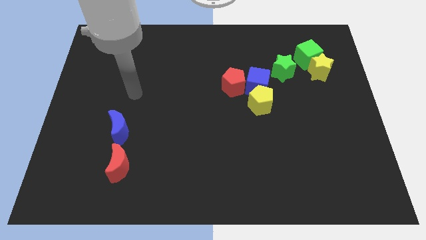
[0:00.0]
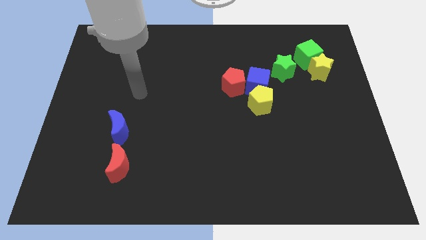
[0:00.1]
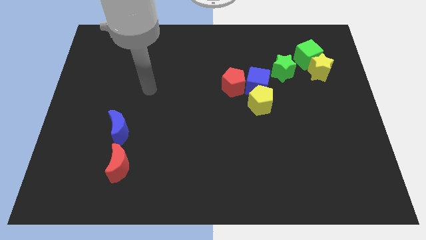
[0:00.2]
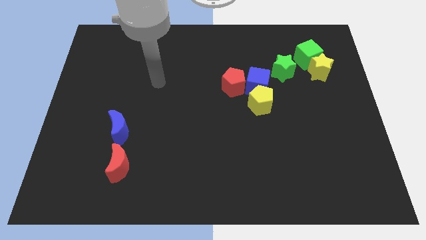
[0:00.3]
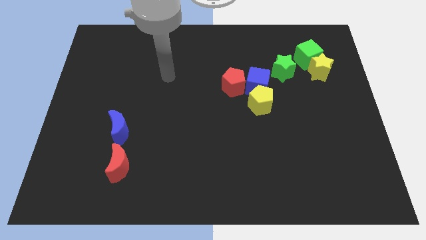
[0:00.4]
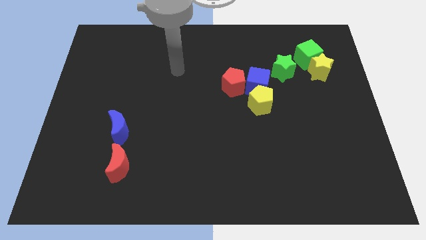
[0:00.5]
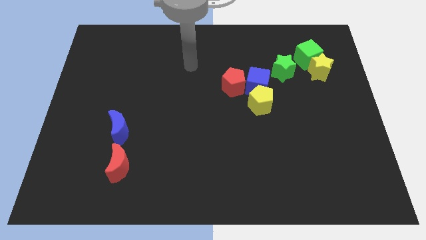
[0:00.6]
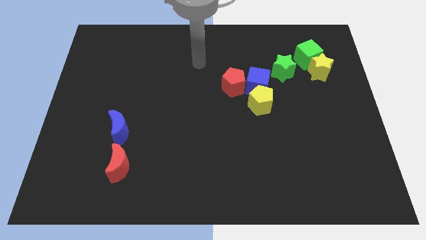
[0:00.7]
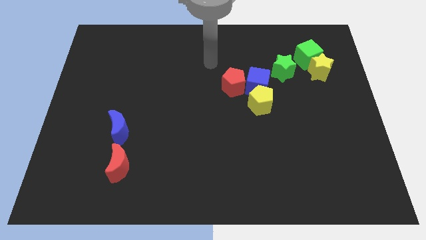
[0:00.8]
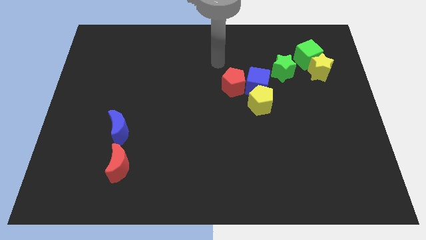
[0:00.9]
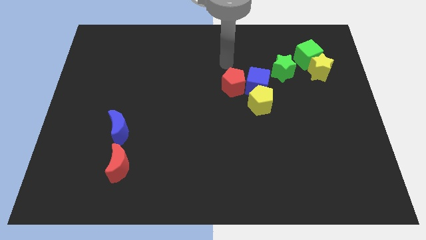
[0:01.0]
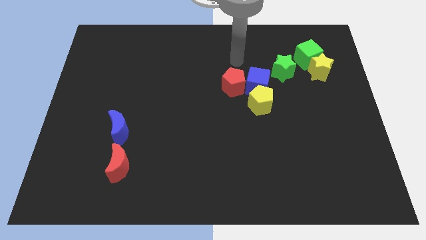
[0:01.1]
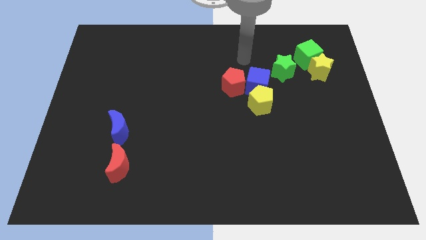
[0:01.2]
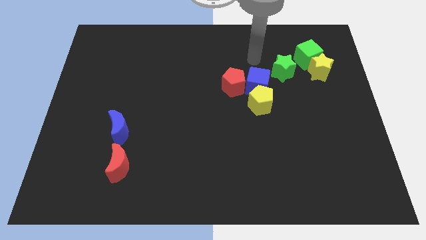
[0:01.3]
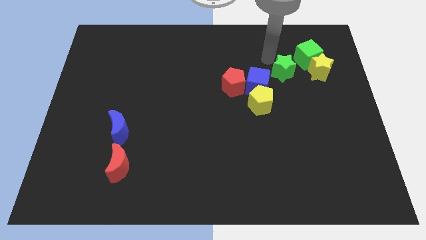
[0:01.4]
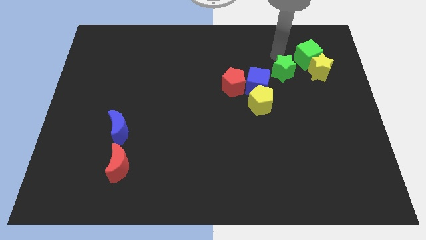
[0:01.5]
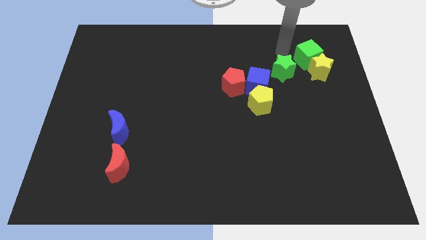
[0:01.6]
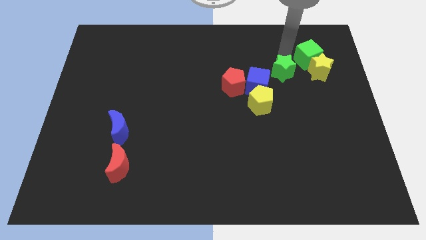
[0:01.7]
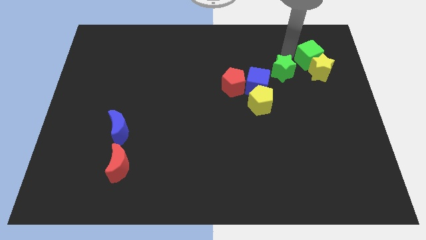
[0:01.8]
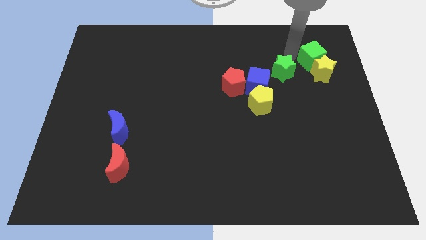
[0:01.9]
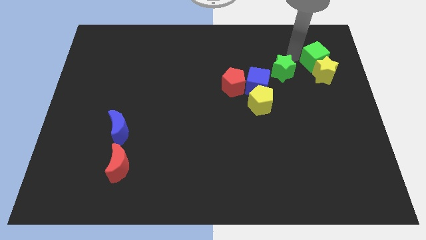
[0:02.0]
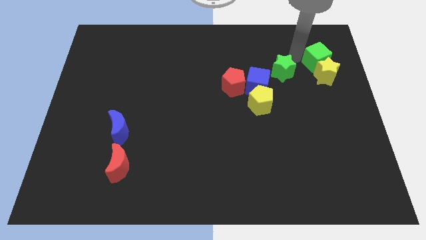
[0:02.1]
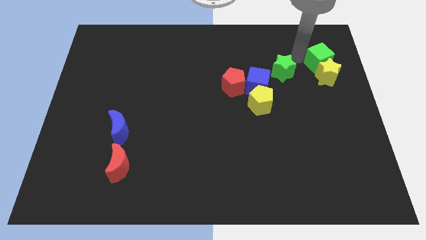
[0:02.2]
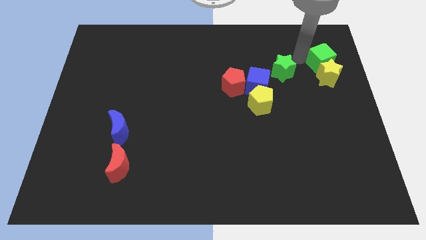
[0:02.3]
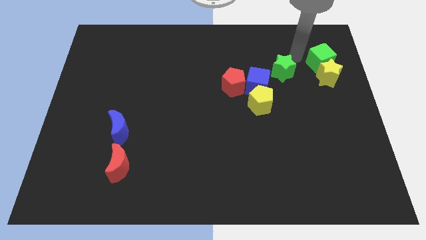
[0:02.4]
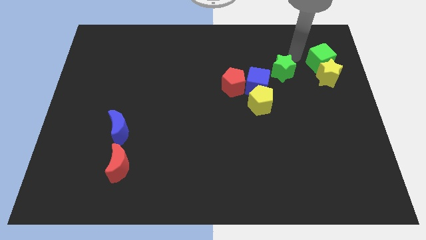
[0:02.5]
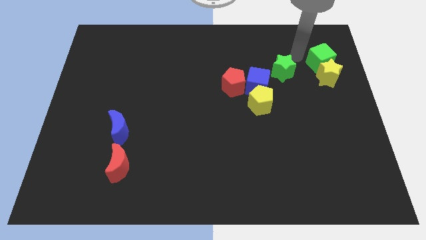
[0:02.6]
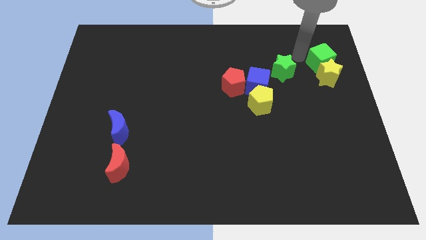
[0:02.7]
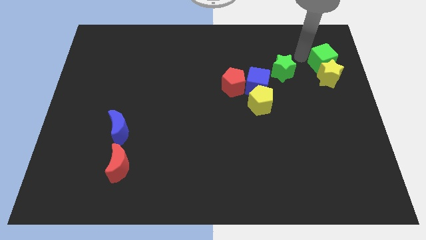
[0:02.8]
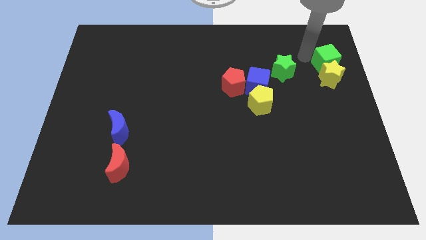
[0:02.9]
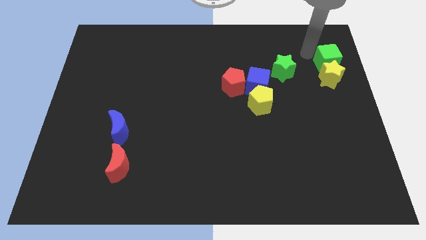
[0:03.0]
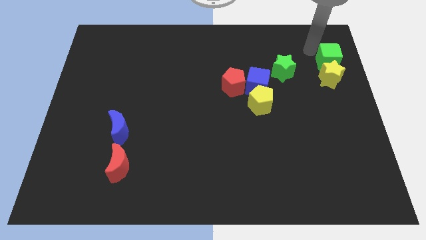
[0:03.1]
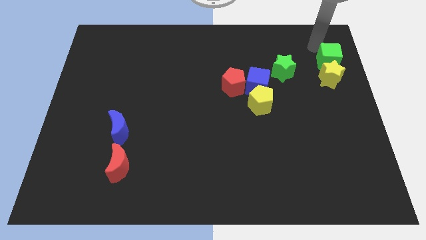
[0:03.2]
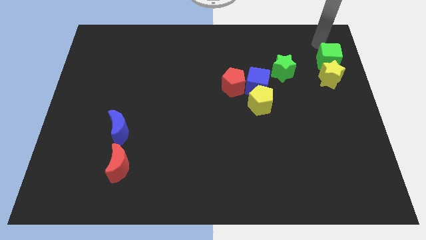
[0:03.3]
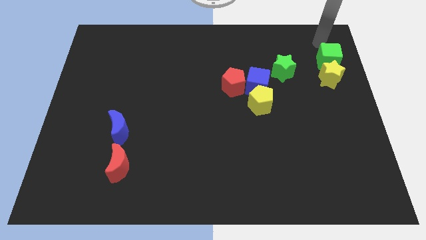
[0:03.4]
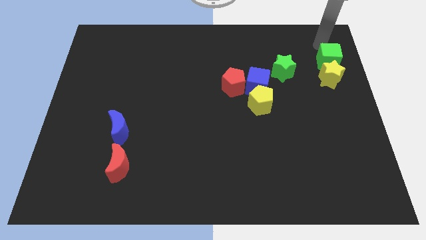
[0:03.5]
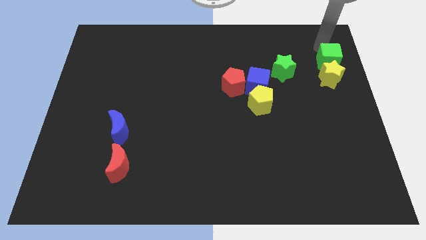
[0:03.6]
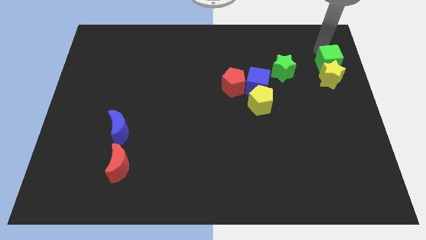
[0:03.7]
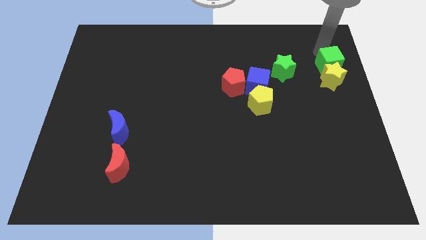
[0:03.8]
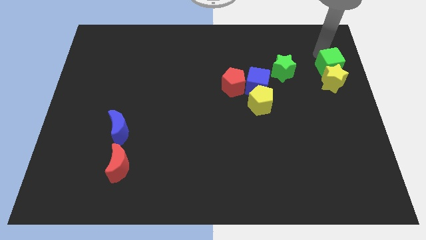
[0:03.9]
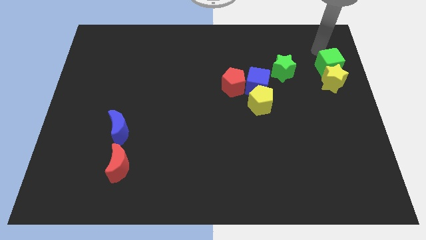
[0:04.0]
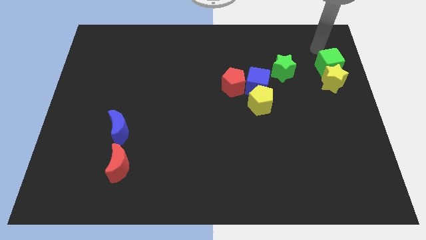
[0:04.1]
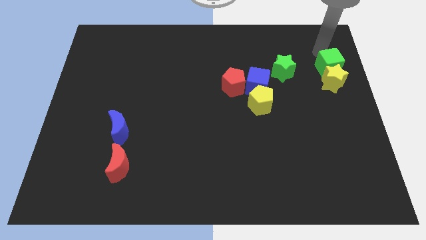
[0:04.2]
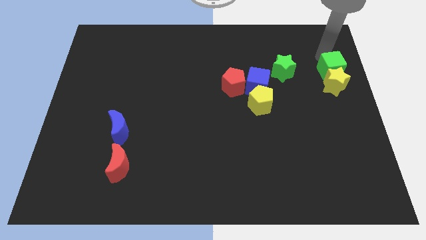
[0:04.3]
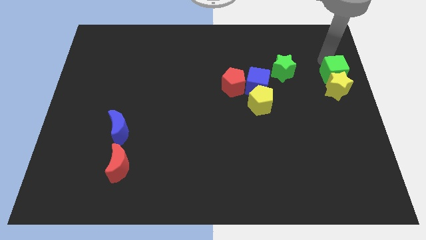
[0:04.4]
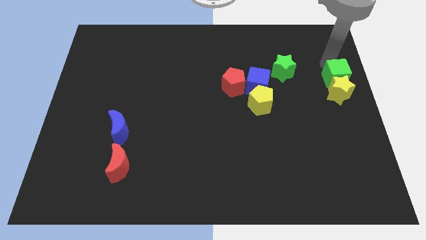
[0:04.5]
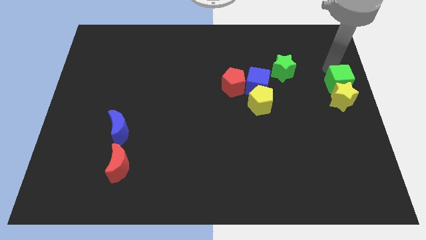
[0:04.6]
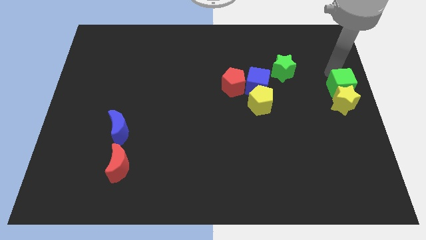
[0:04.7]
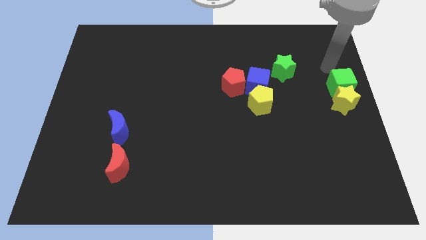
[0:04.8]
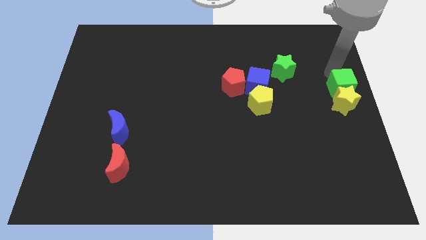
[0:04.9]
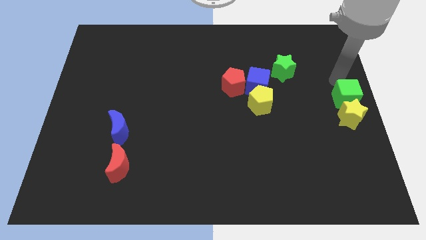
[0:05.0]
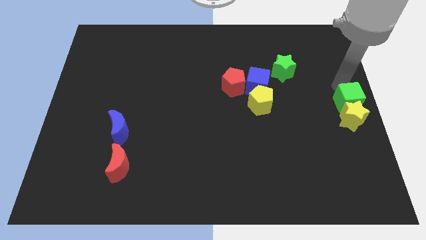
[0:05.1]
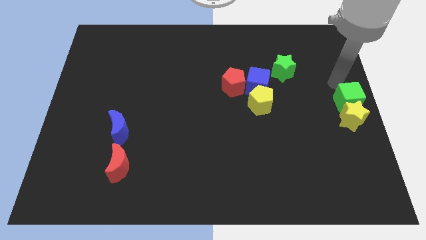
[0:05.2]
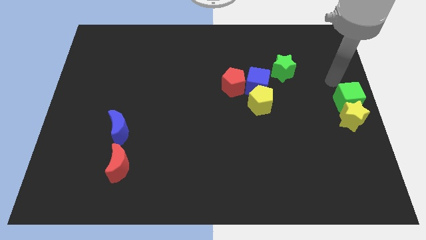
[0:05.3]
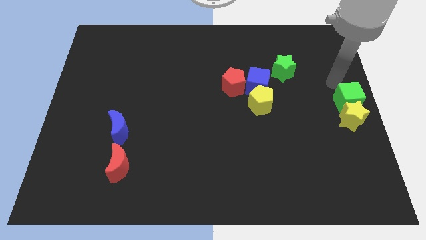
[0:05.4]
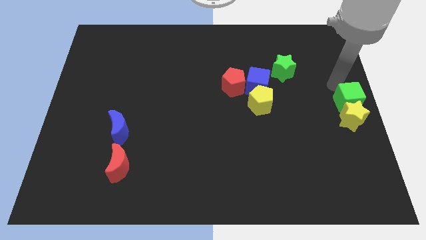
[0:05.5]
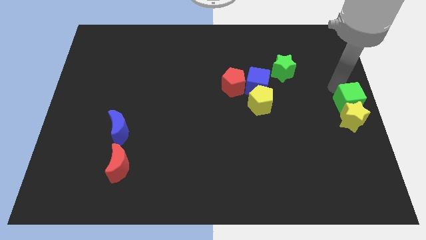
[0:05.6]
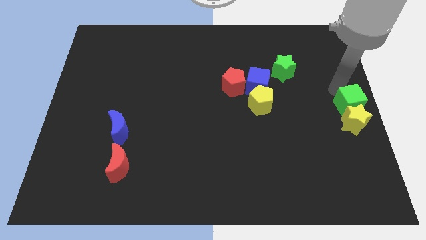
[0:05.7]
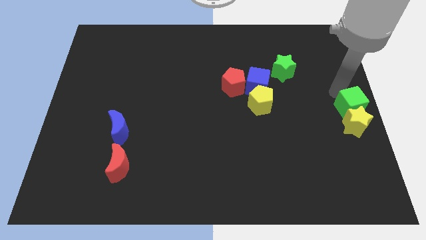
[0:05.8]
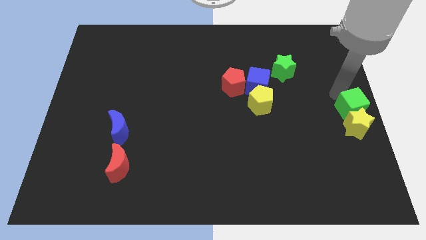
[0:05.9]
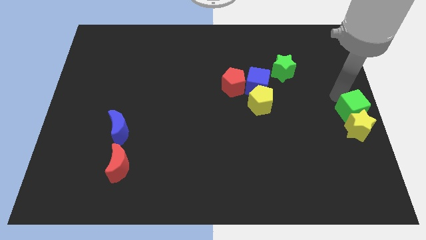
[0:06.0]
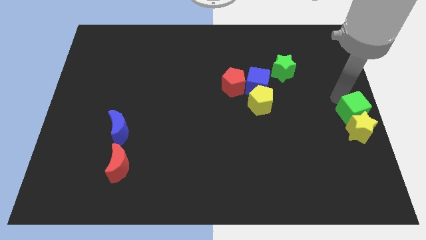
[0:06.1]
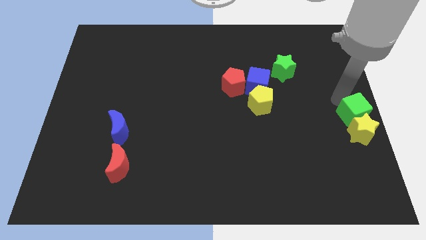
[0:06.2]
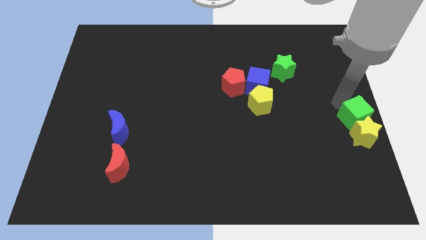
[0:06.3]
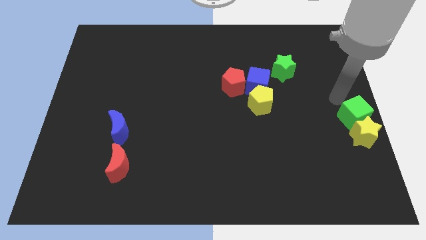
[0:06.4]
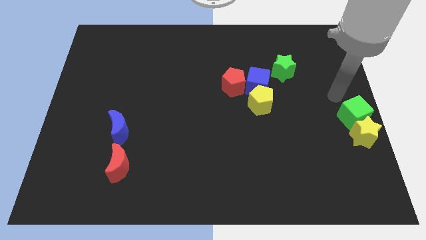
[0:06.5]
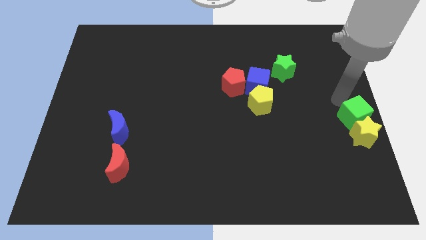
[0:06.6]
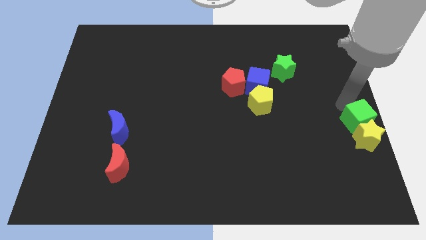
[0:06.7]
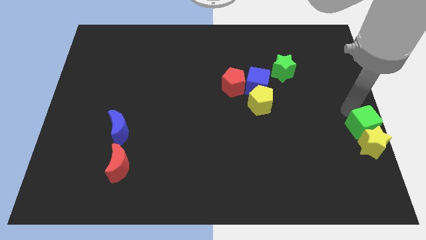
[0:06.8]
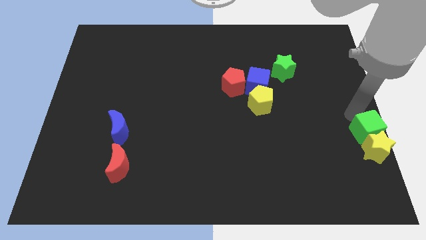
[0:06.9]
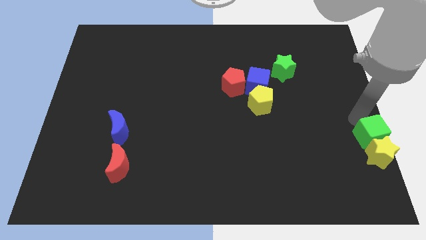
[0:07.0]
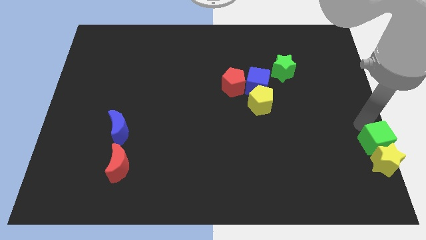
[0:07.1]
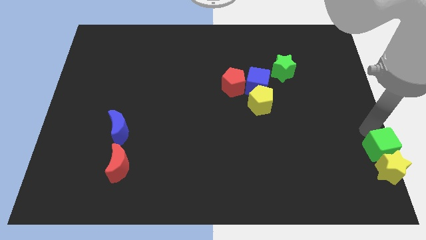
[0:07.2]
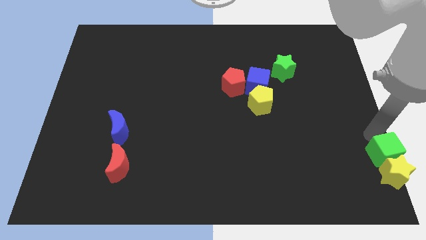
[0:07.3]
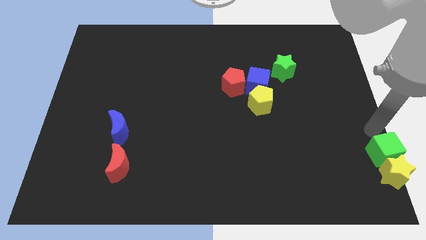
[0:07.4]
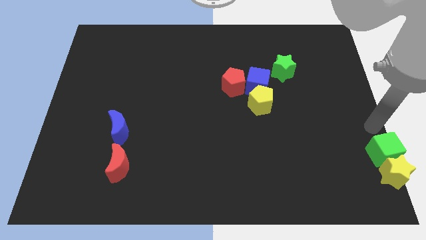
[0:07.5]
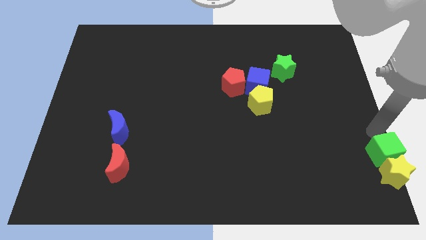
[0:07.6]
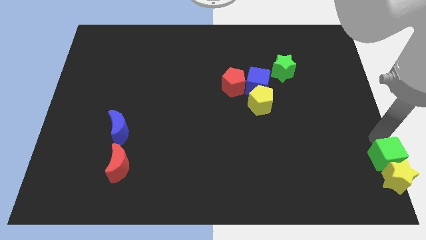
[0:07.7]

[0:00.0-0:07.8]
push the green cube to the bottom right corner
